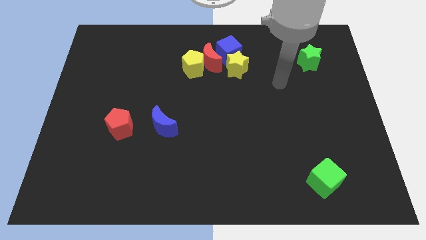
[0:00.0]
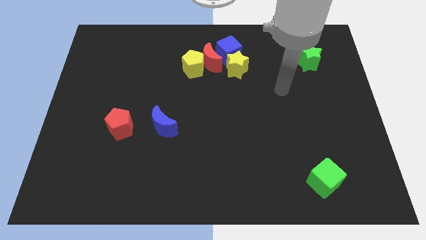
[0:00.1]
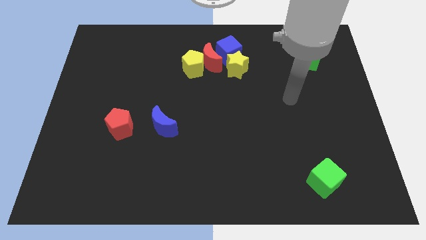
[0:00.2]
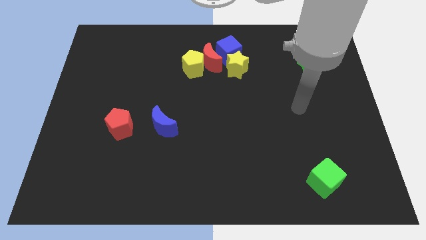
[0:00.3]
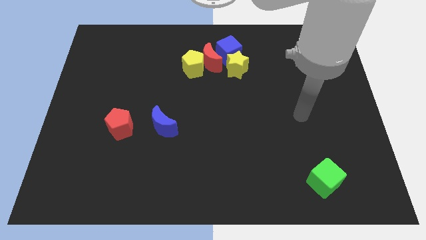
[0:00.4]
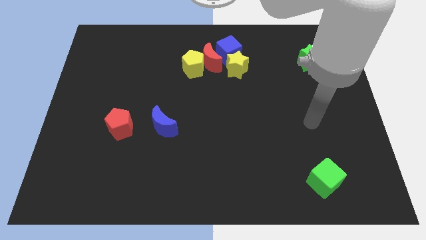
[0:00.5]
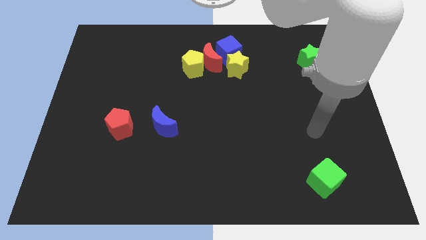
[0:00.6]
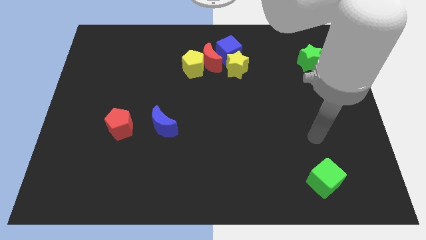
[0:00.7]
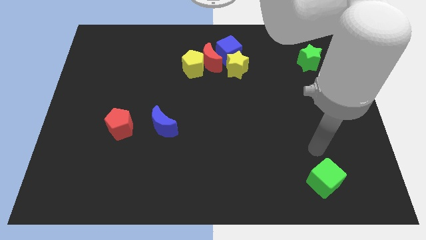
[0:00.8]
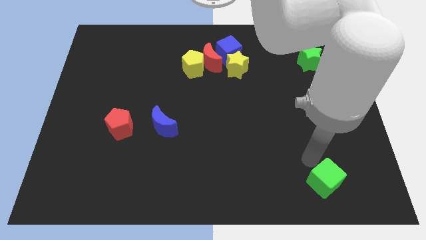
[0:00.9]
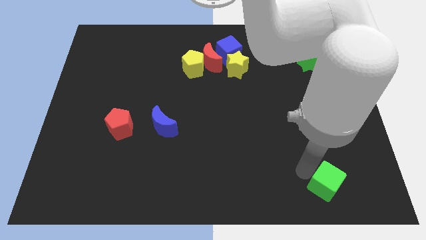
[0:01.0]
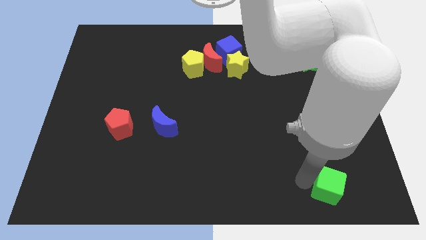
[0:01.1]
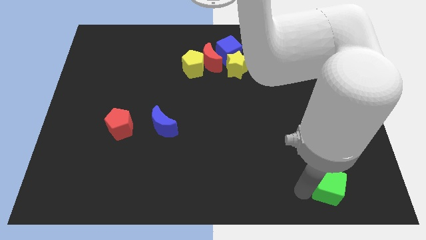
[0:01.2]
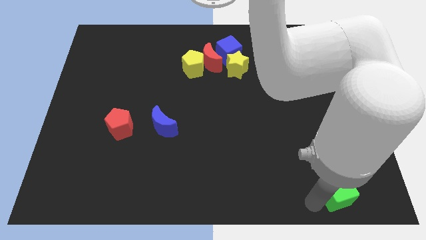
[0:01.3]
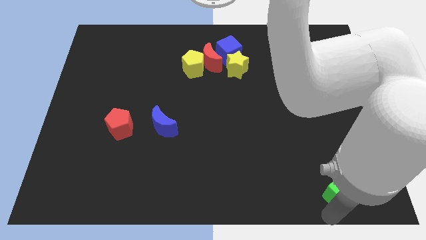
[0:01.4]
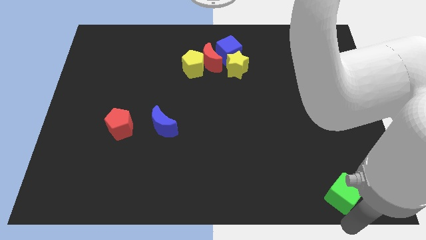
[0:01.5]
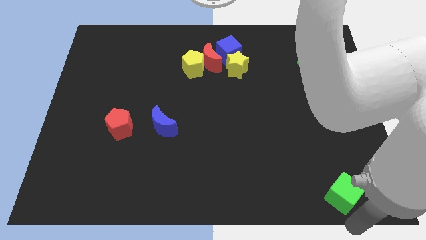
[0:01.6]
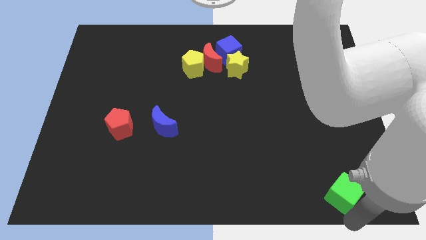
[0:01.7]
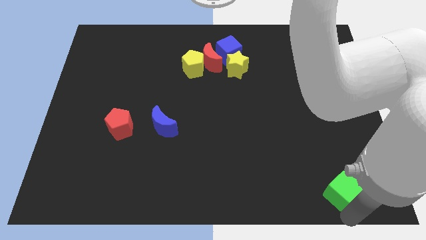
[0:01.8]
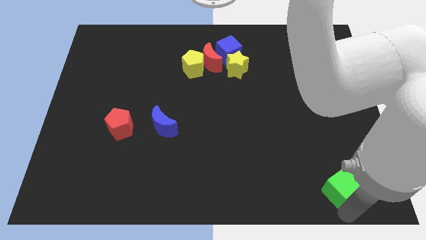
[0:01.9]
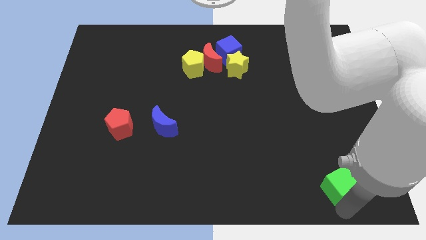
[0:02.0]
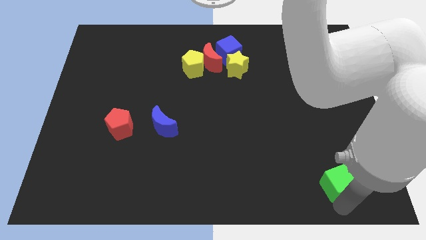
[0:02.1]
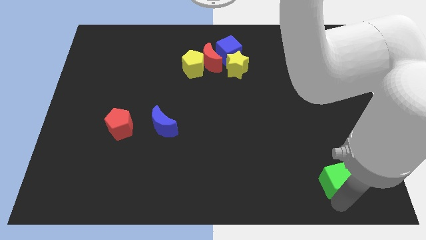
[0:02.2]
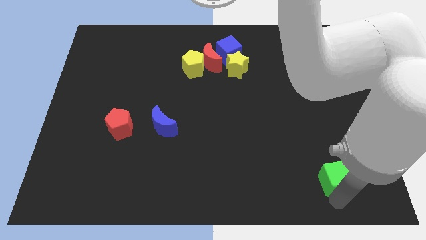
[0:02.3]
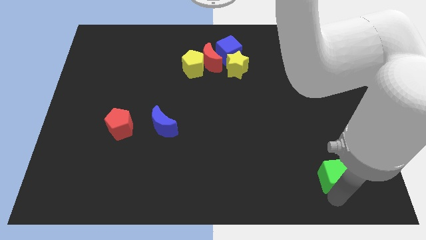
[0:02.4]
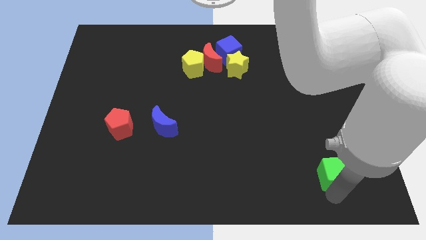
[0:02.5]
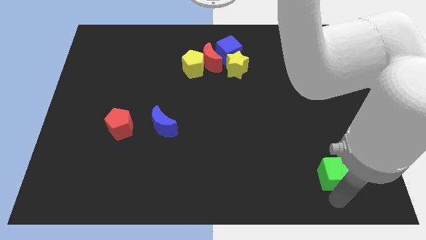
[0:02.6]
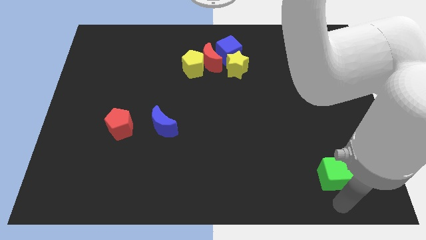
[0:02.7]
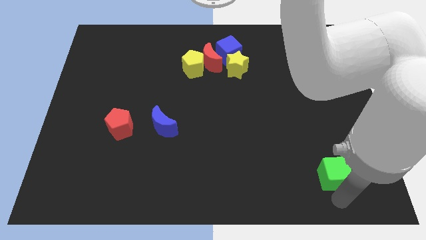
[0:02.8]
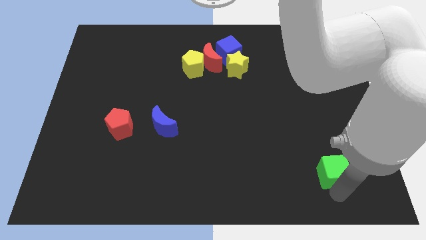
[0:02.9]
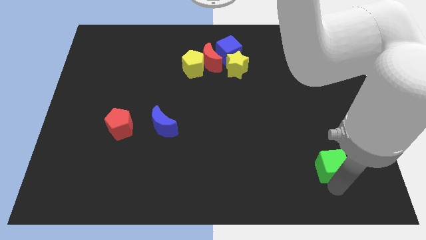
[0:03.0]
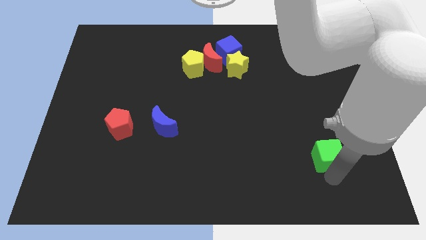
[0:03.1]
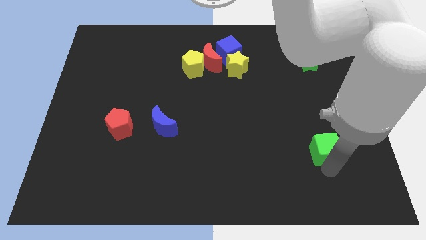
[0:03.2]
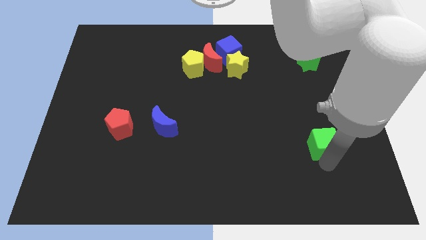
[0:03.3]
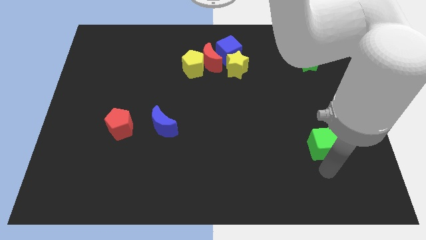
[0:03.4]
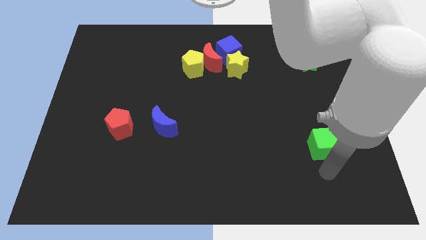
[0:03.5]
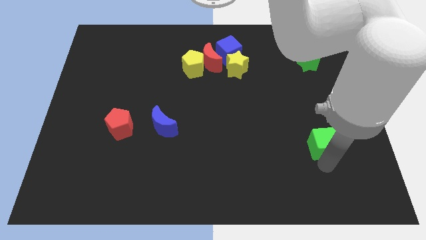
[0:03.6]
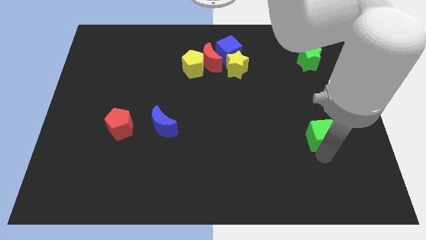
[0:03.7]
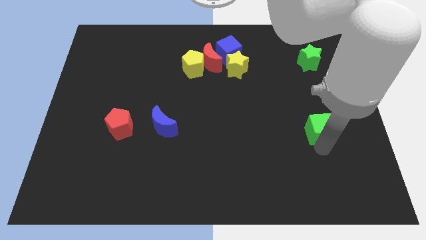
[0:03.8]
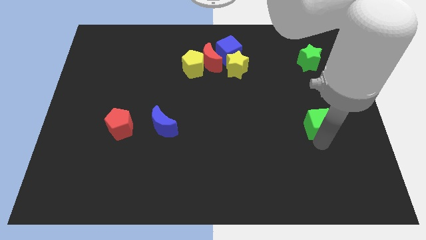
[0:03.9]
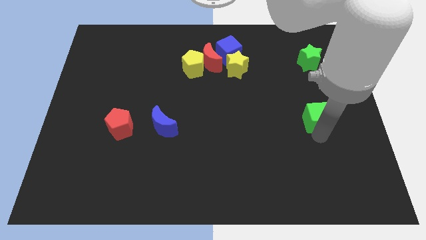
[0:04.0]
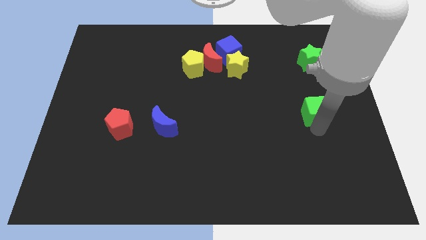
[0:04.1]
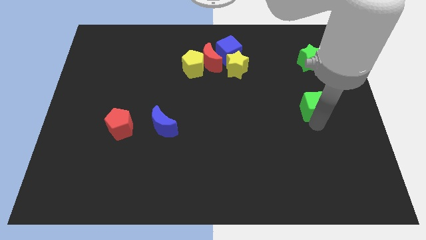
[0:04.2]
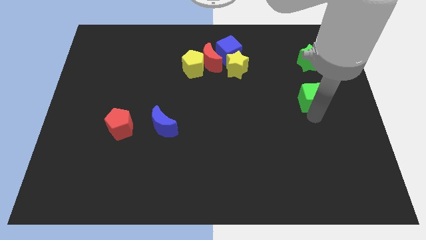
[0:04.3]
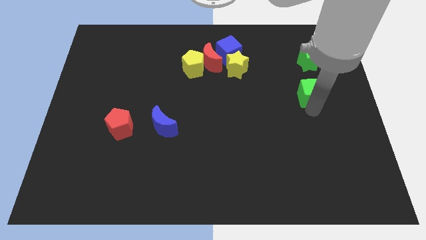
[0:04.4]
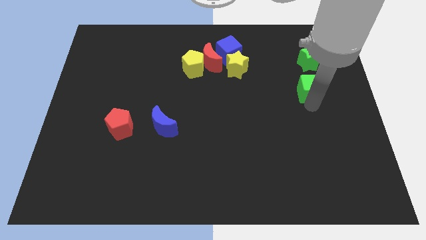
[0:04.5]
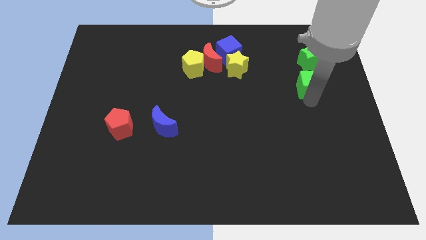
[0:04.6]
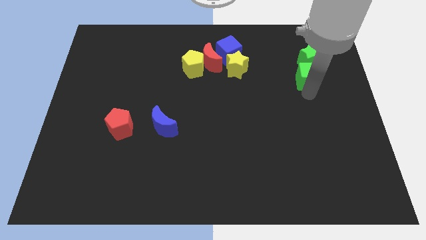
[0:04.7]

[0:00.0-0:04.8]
move the green cube close to the green star

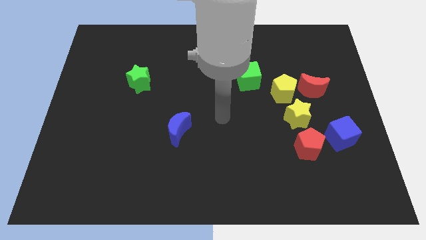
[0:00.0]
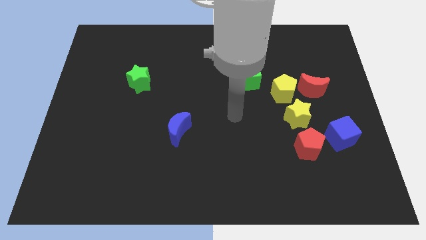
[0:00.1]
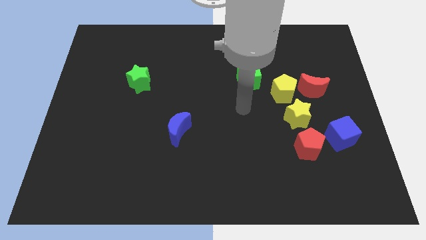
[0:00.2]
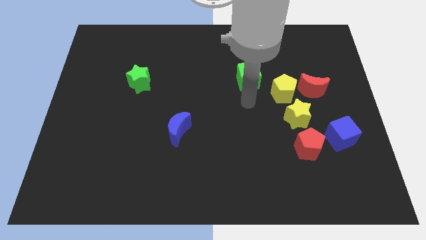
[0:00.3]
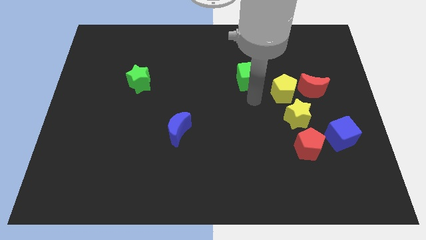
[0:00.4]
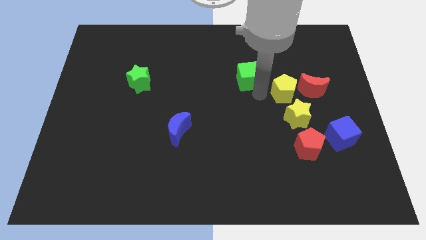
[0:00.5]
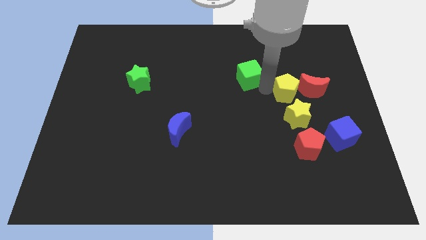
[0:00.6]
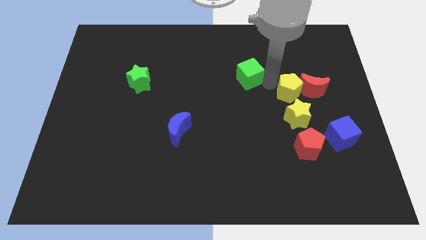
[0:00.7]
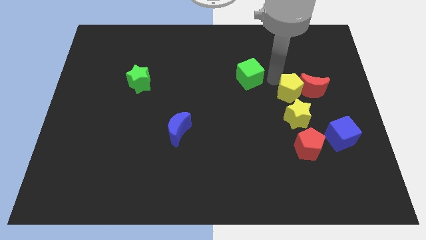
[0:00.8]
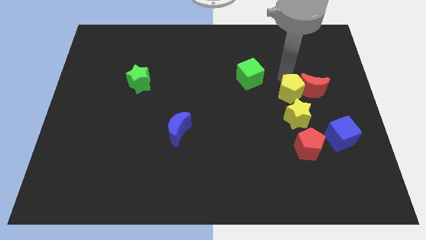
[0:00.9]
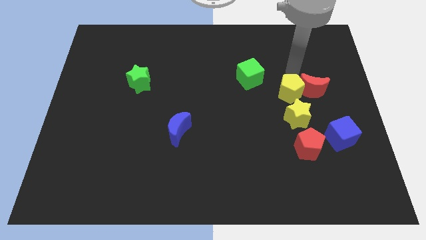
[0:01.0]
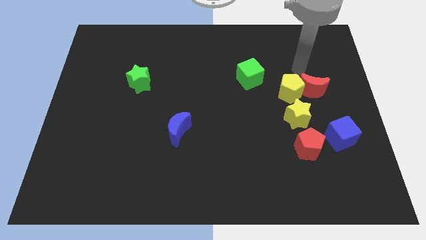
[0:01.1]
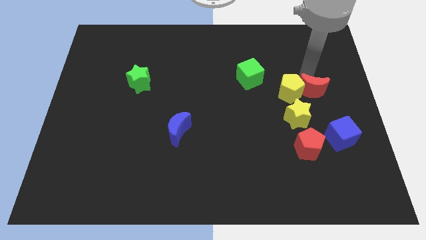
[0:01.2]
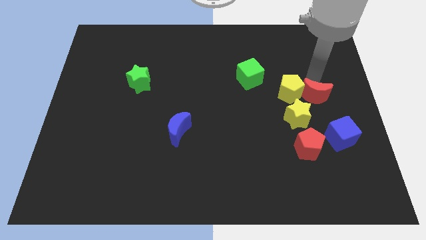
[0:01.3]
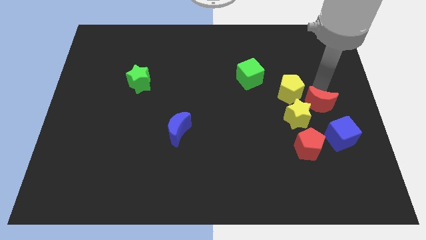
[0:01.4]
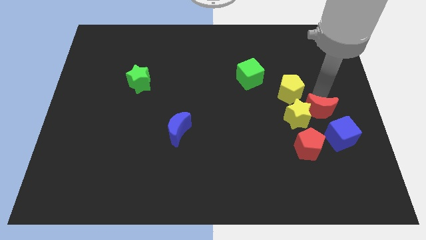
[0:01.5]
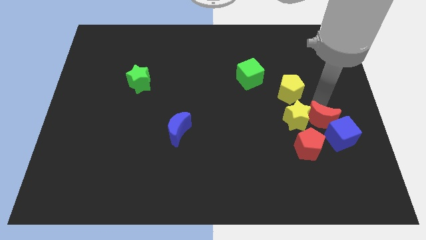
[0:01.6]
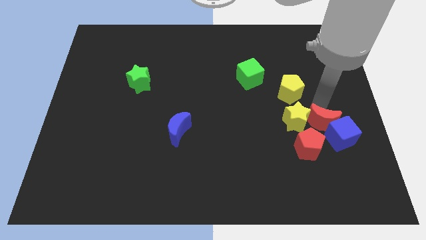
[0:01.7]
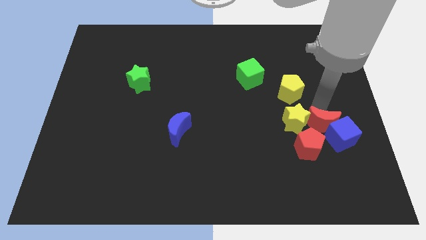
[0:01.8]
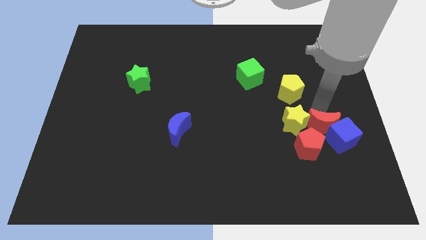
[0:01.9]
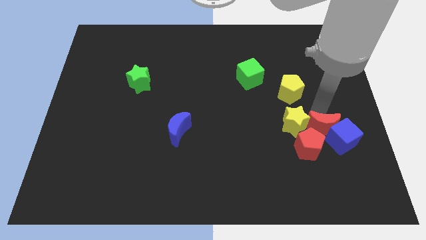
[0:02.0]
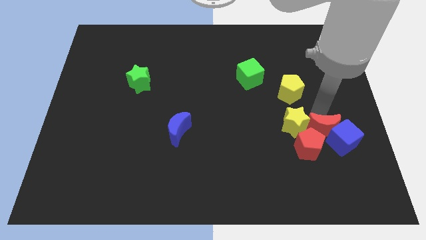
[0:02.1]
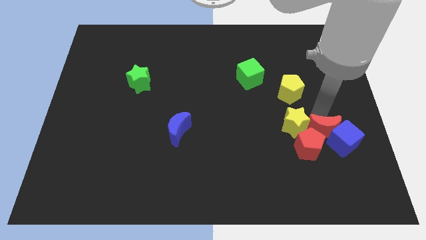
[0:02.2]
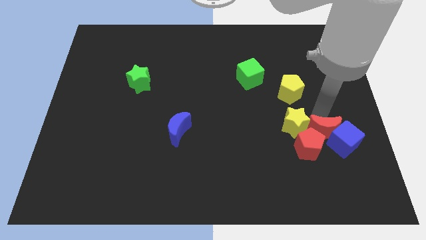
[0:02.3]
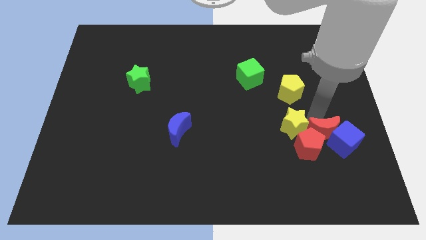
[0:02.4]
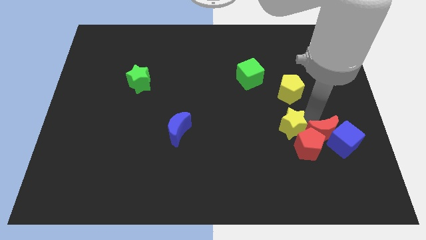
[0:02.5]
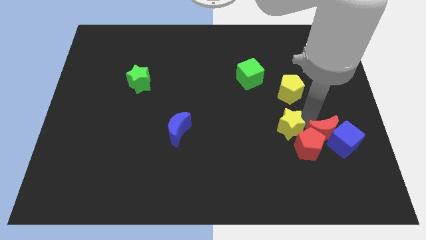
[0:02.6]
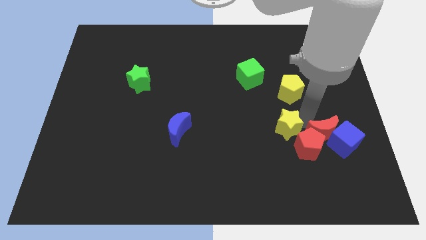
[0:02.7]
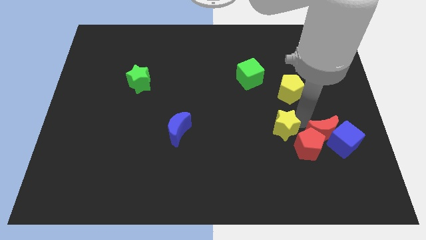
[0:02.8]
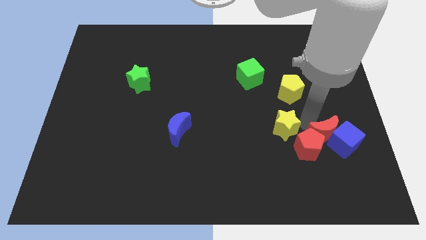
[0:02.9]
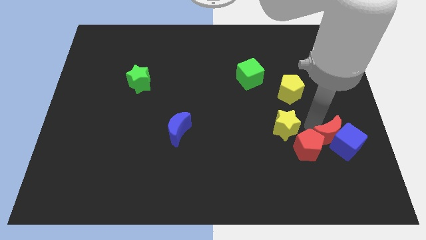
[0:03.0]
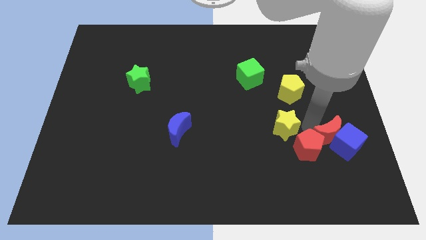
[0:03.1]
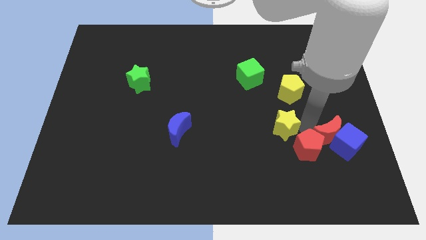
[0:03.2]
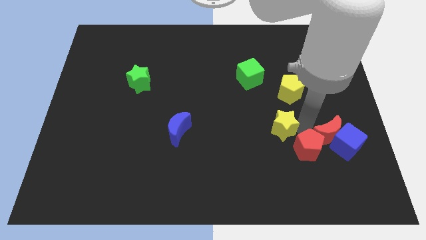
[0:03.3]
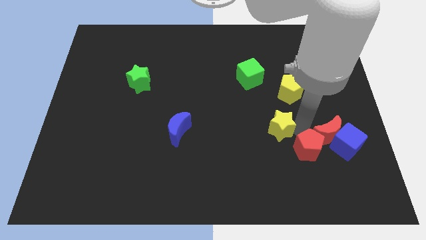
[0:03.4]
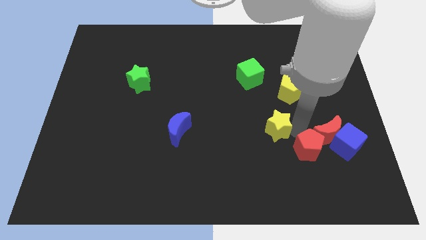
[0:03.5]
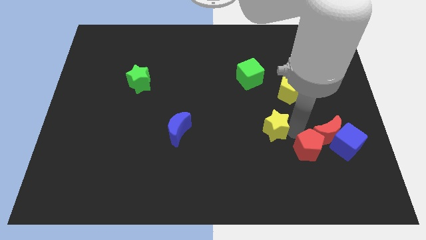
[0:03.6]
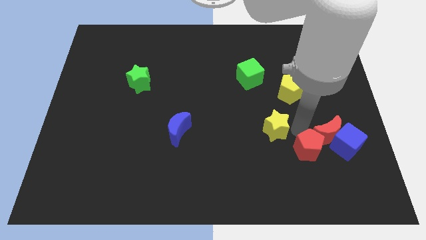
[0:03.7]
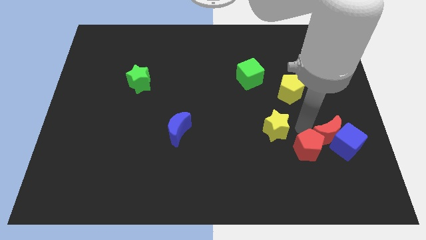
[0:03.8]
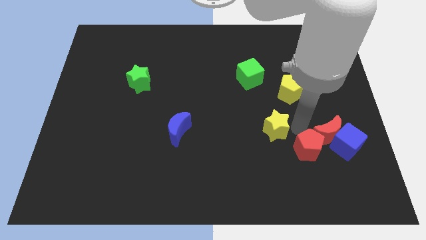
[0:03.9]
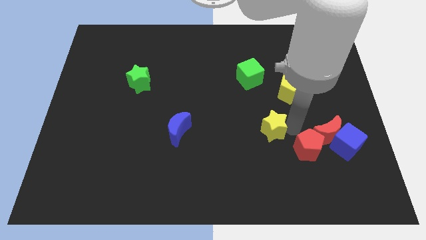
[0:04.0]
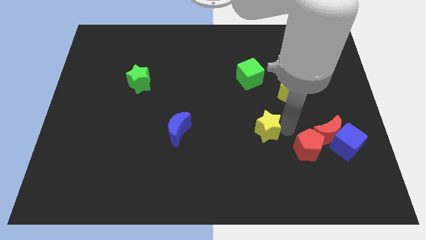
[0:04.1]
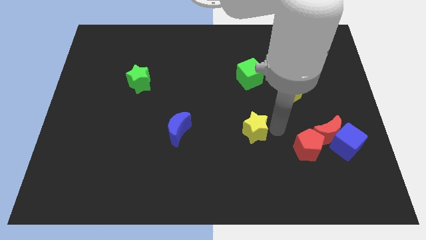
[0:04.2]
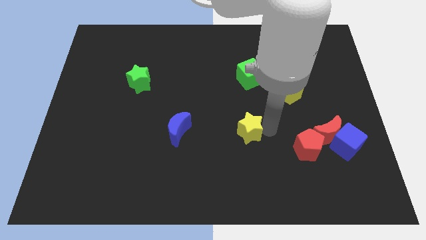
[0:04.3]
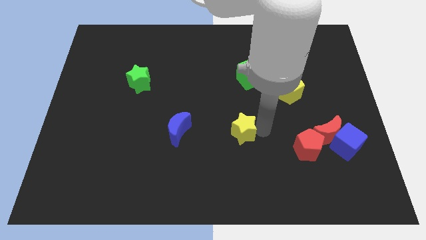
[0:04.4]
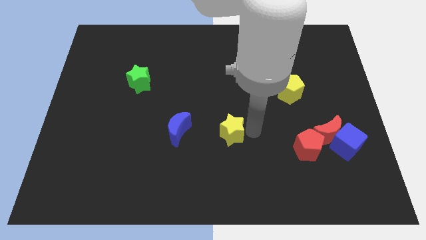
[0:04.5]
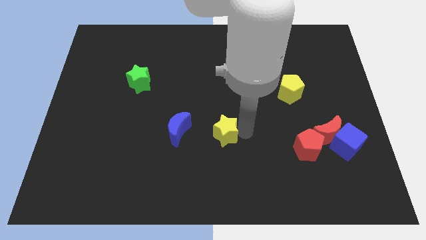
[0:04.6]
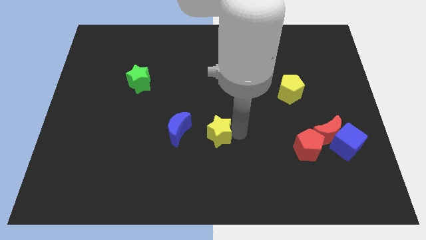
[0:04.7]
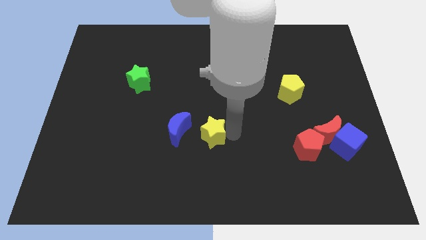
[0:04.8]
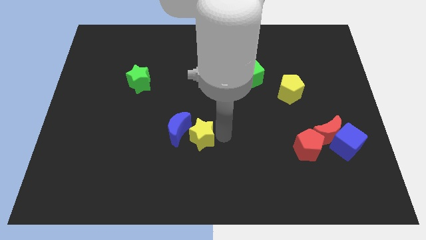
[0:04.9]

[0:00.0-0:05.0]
put the yellow star next to the blue moon
